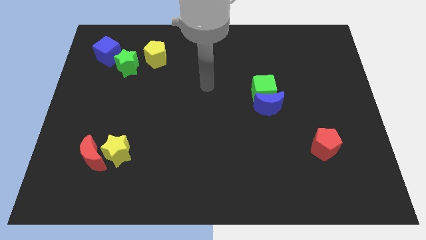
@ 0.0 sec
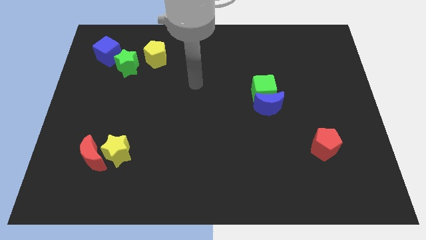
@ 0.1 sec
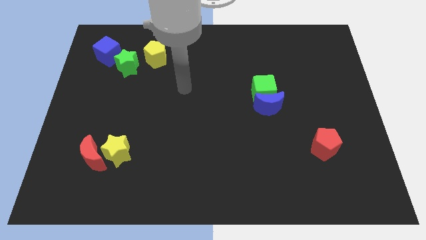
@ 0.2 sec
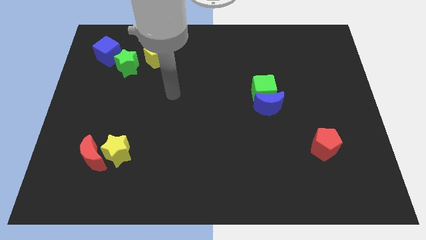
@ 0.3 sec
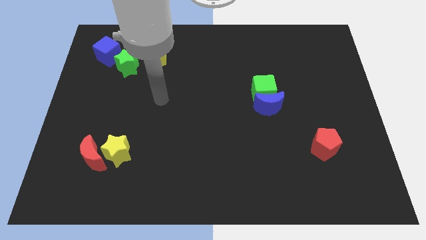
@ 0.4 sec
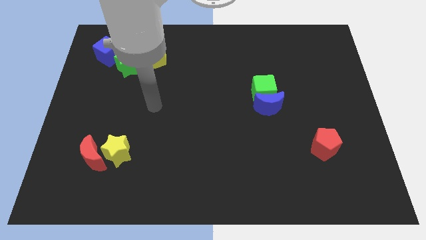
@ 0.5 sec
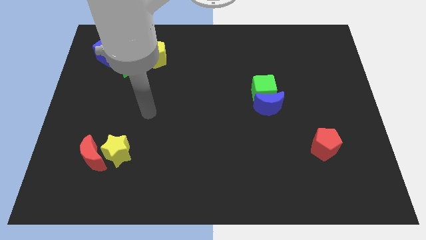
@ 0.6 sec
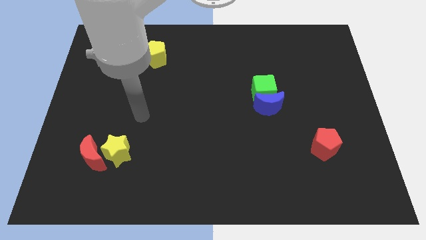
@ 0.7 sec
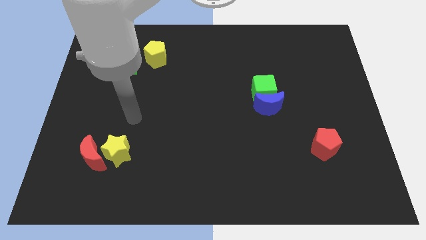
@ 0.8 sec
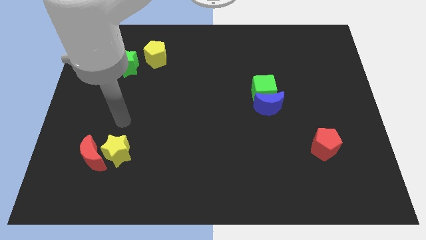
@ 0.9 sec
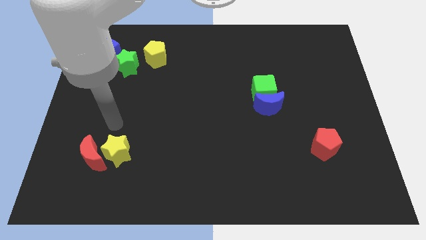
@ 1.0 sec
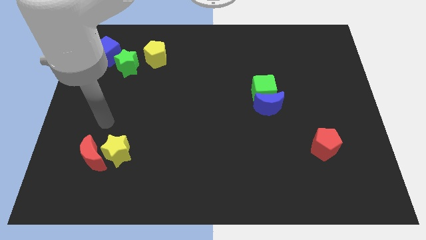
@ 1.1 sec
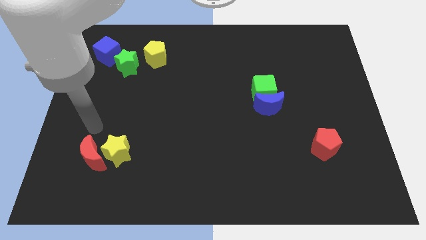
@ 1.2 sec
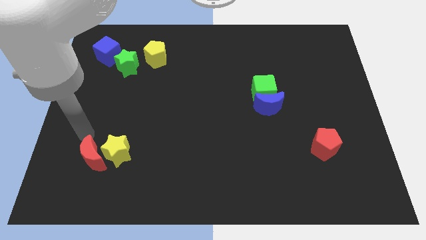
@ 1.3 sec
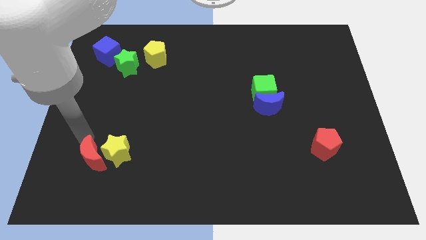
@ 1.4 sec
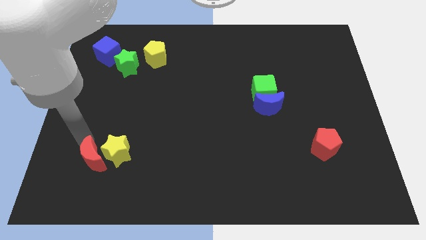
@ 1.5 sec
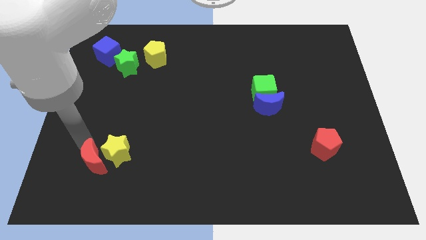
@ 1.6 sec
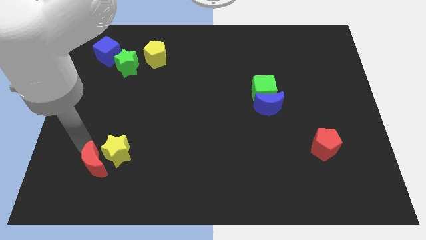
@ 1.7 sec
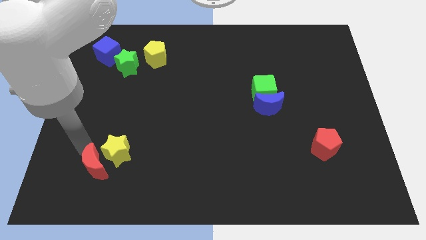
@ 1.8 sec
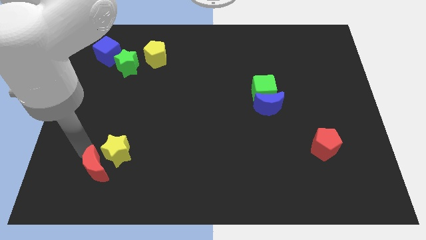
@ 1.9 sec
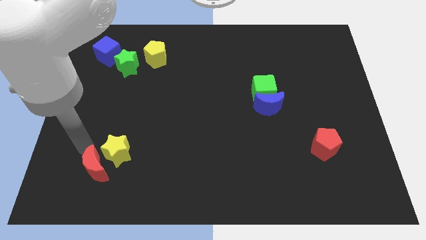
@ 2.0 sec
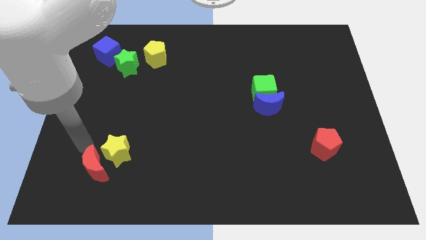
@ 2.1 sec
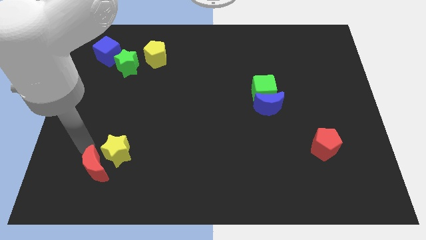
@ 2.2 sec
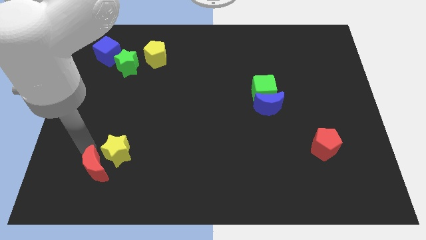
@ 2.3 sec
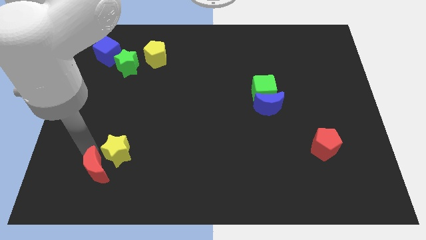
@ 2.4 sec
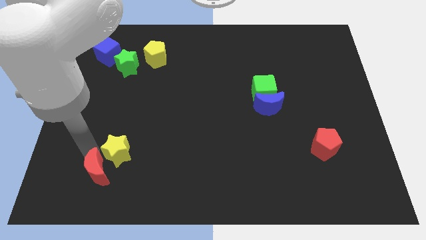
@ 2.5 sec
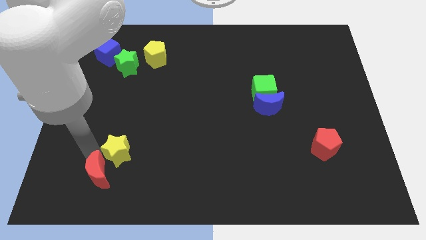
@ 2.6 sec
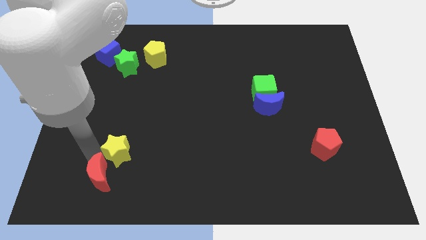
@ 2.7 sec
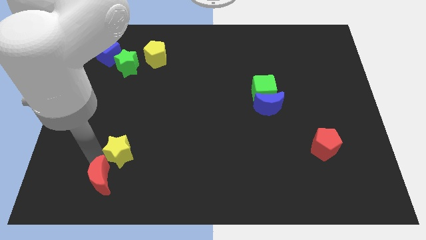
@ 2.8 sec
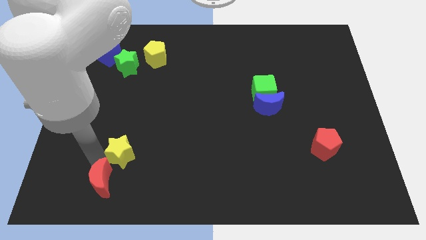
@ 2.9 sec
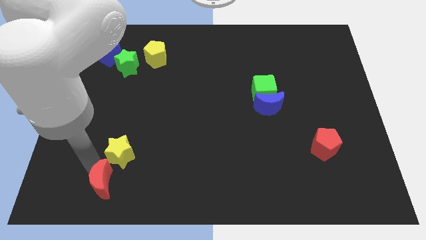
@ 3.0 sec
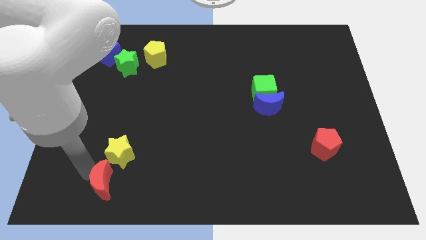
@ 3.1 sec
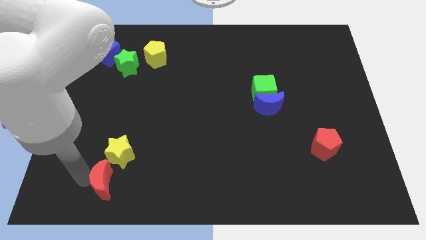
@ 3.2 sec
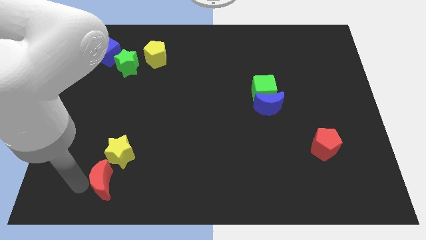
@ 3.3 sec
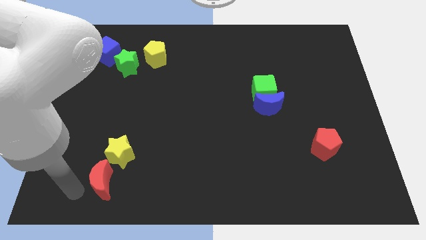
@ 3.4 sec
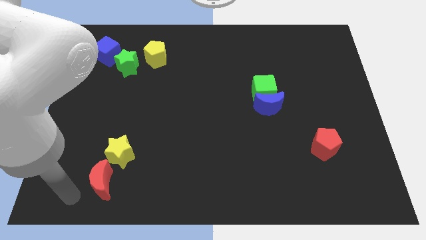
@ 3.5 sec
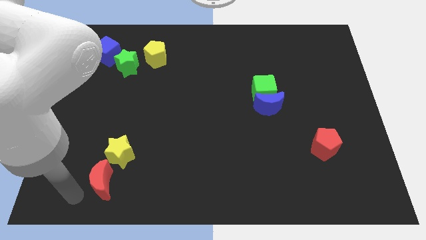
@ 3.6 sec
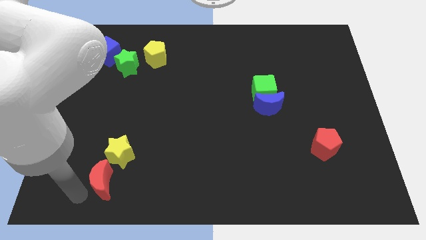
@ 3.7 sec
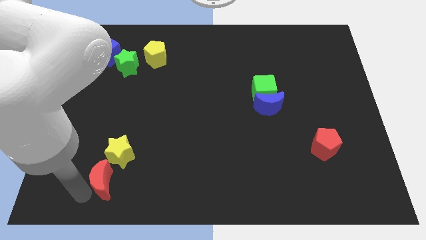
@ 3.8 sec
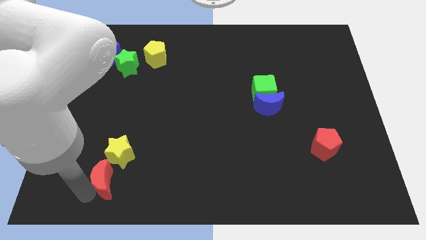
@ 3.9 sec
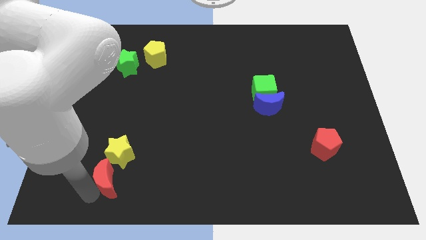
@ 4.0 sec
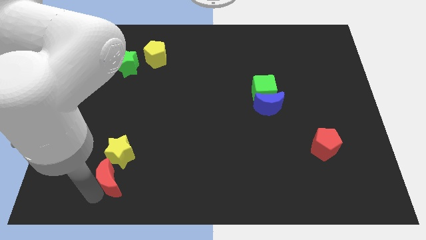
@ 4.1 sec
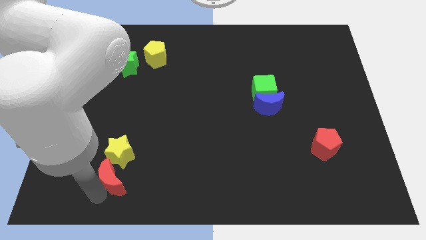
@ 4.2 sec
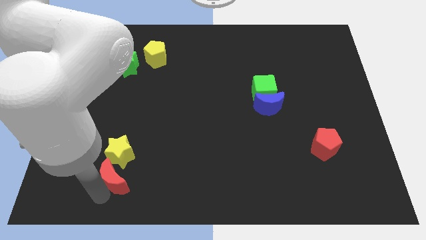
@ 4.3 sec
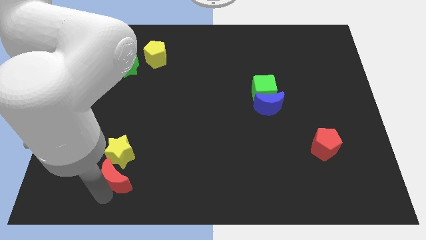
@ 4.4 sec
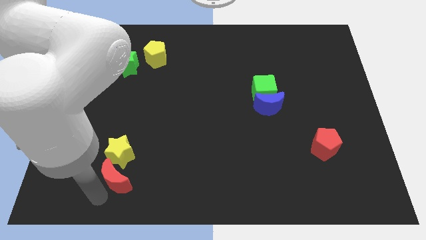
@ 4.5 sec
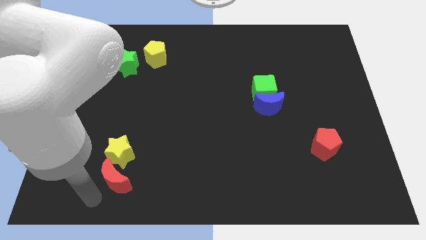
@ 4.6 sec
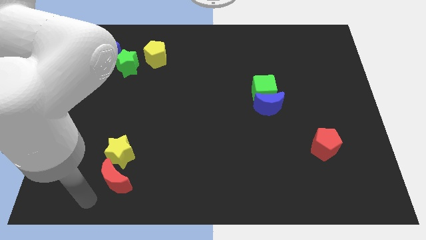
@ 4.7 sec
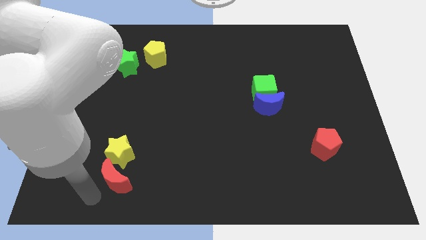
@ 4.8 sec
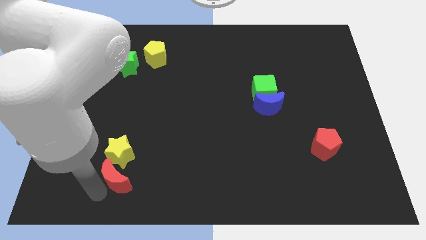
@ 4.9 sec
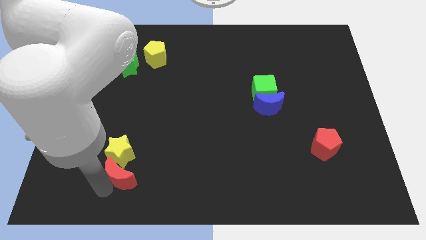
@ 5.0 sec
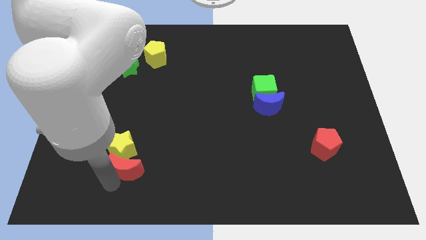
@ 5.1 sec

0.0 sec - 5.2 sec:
slide the red moon right a bit

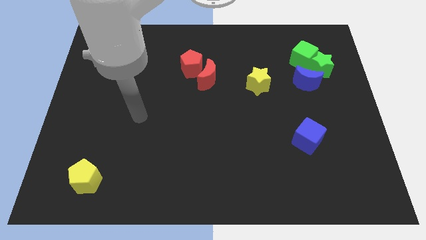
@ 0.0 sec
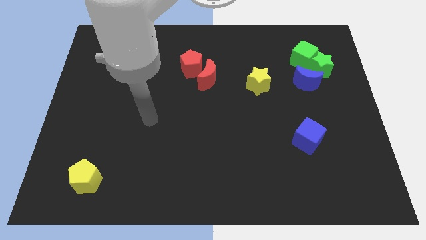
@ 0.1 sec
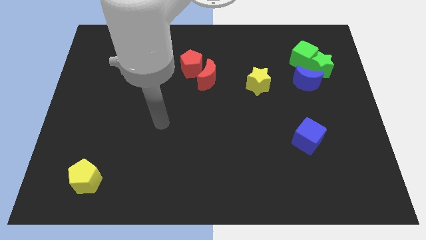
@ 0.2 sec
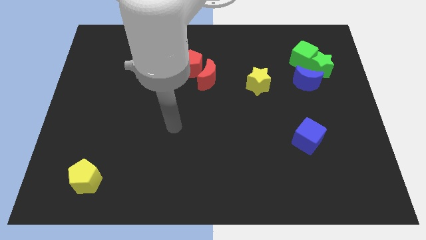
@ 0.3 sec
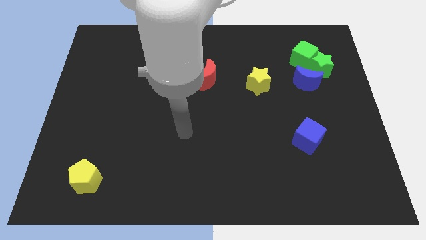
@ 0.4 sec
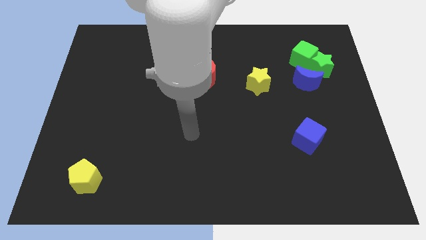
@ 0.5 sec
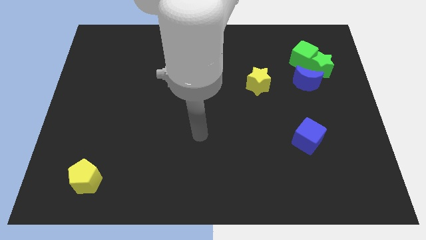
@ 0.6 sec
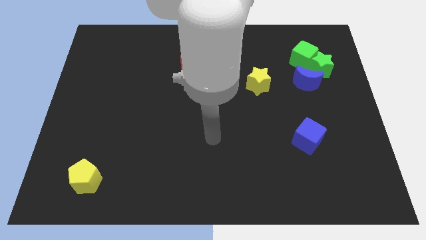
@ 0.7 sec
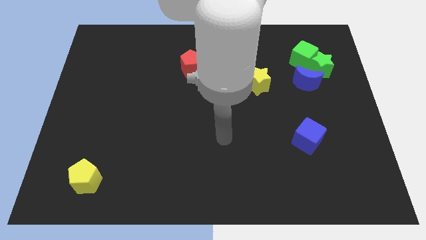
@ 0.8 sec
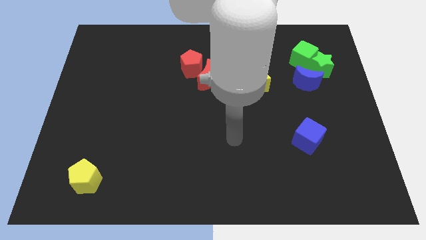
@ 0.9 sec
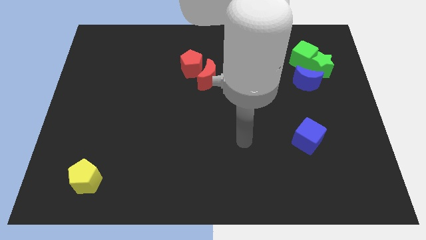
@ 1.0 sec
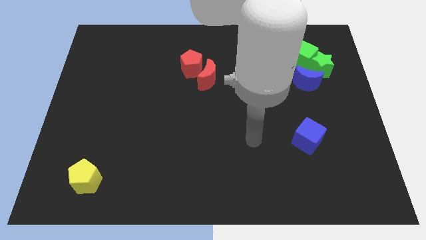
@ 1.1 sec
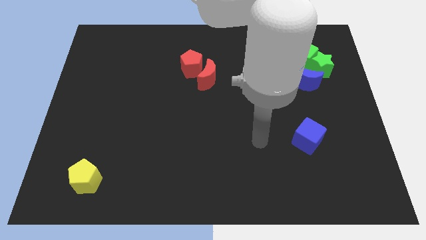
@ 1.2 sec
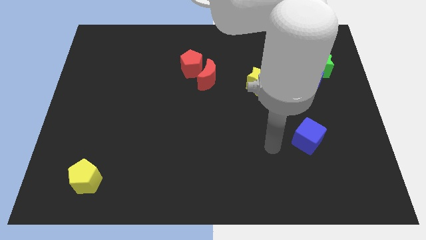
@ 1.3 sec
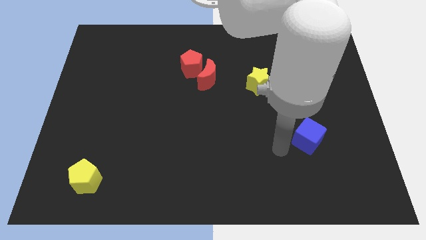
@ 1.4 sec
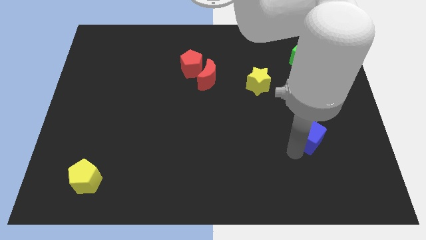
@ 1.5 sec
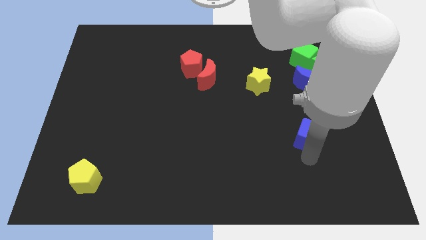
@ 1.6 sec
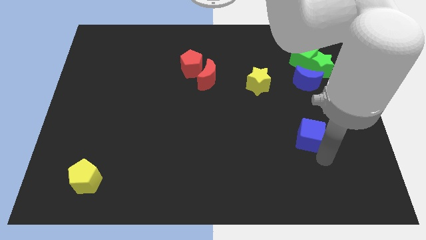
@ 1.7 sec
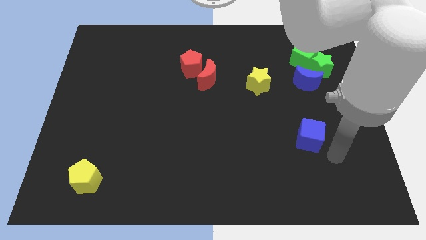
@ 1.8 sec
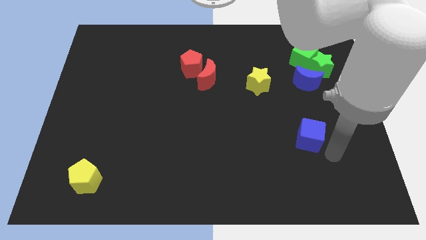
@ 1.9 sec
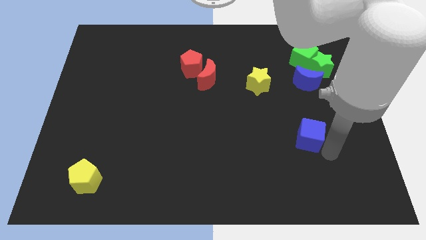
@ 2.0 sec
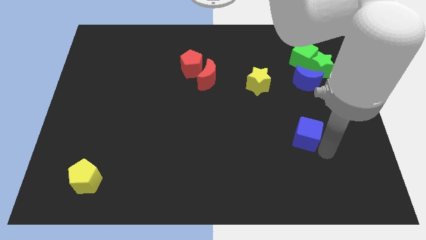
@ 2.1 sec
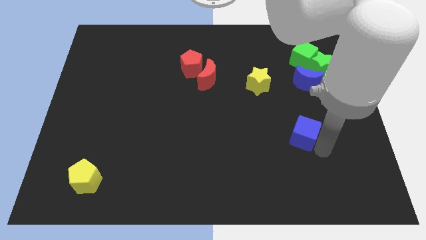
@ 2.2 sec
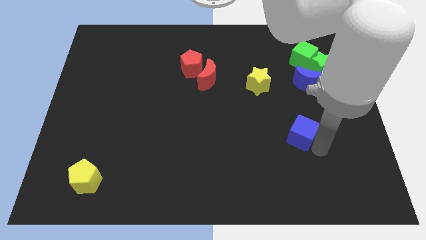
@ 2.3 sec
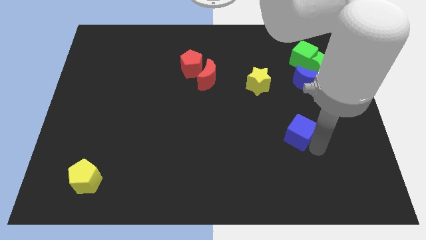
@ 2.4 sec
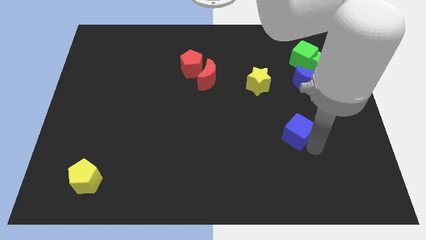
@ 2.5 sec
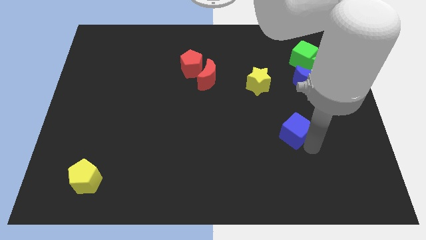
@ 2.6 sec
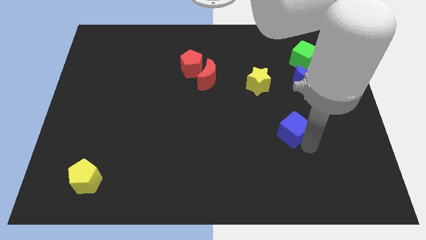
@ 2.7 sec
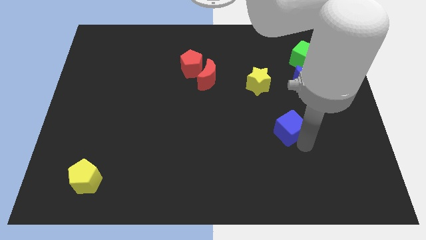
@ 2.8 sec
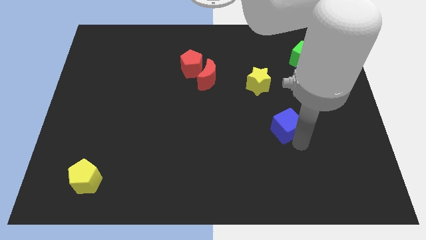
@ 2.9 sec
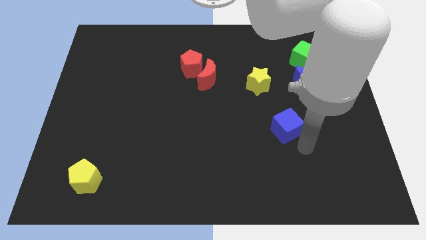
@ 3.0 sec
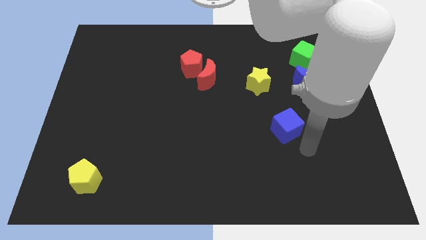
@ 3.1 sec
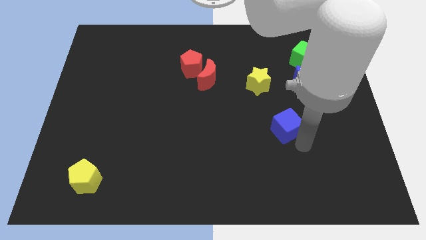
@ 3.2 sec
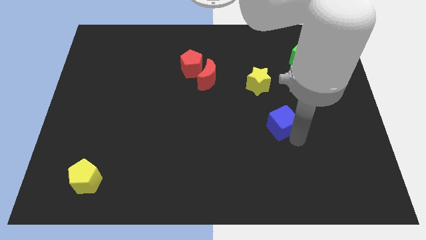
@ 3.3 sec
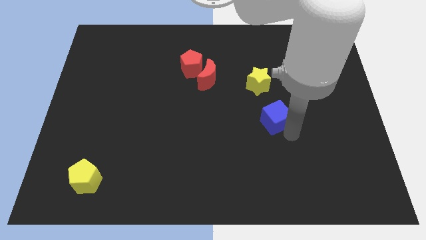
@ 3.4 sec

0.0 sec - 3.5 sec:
slide the blue cube diagonally up and left slightly
